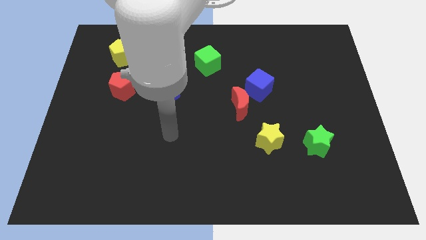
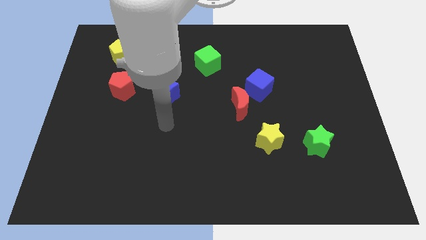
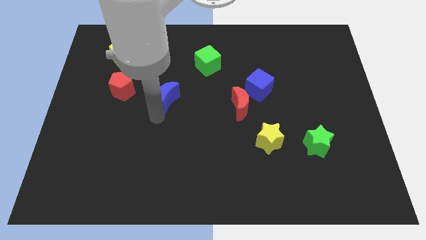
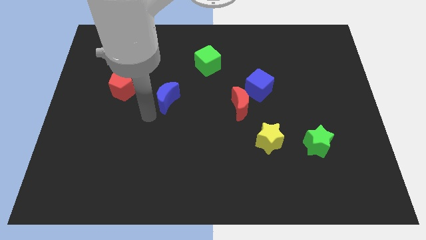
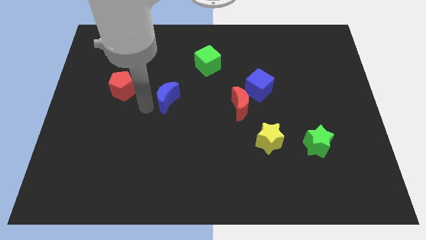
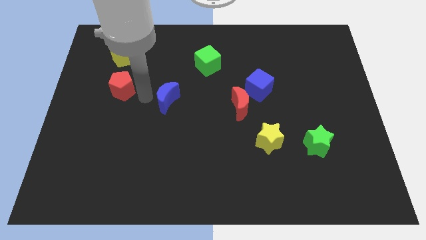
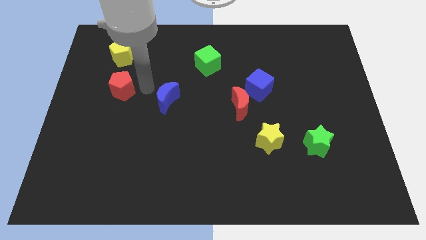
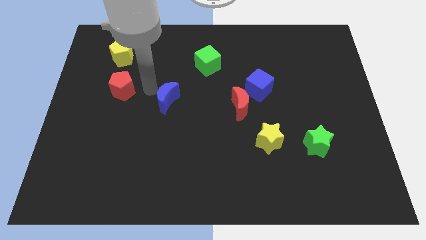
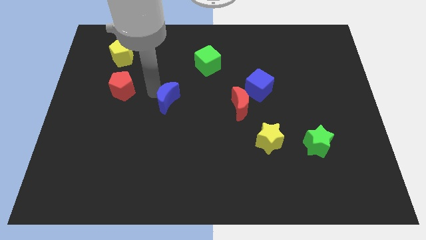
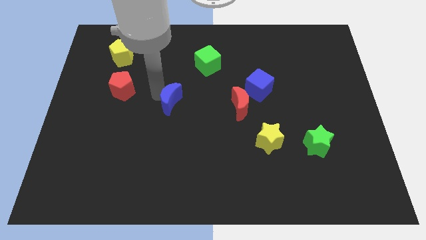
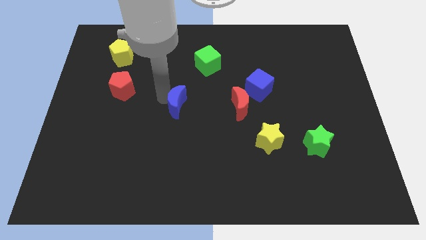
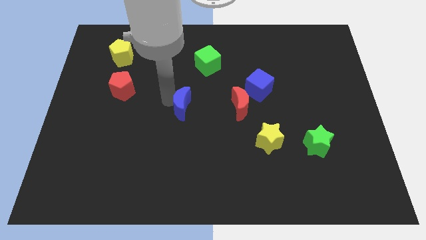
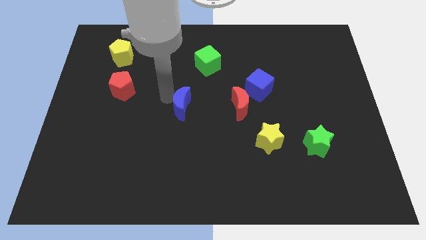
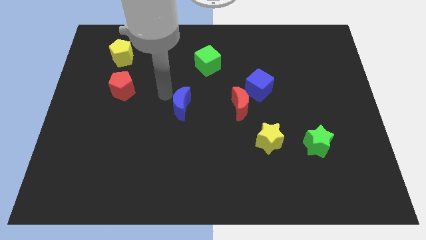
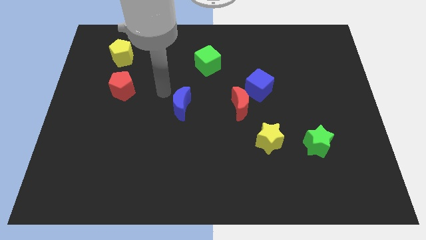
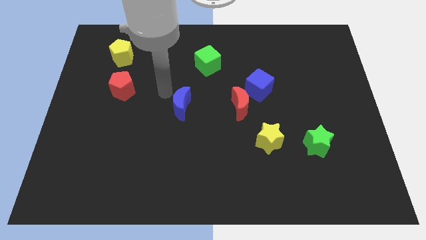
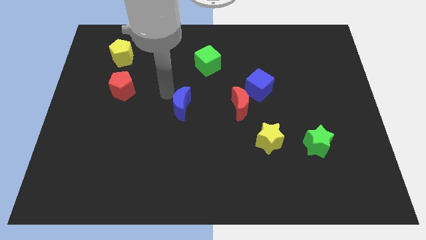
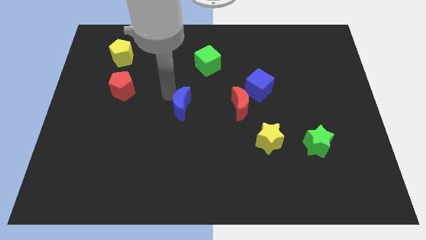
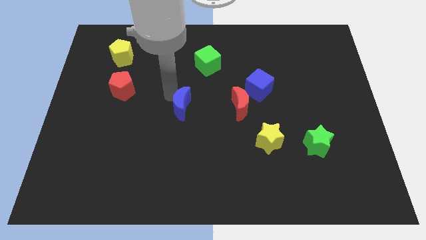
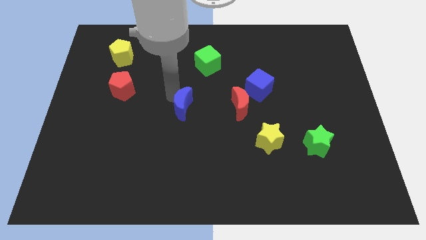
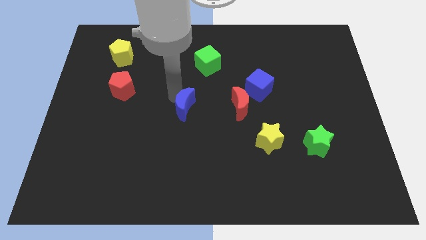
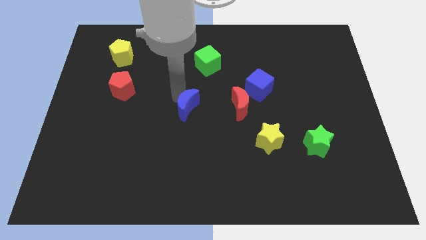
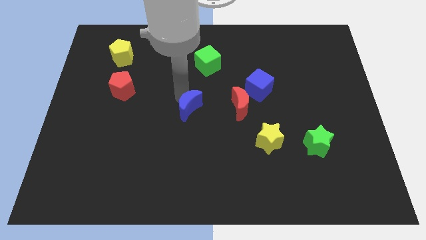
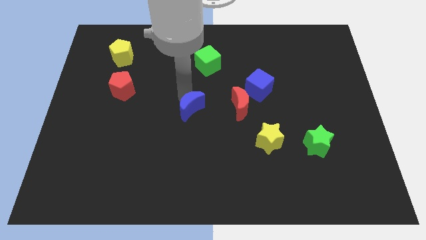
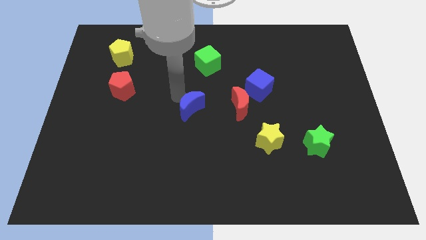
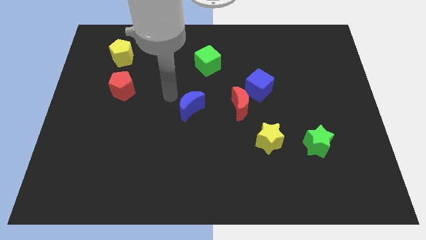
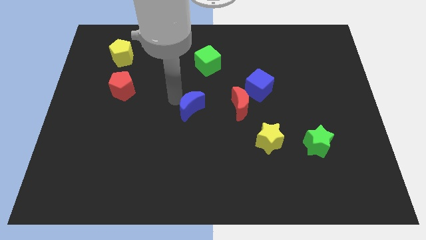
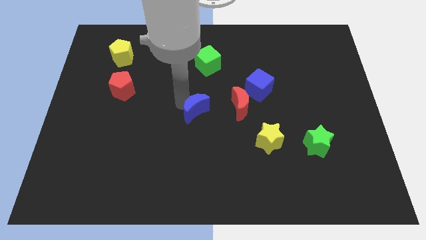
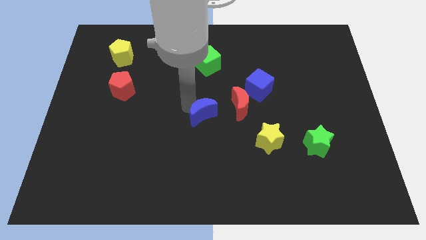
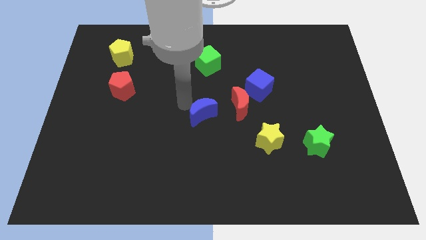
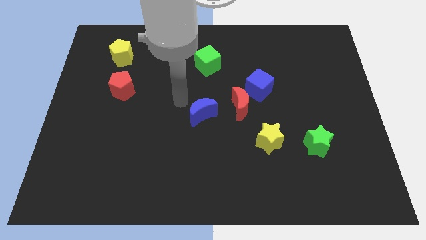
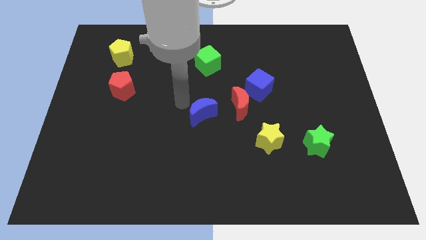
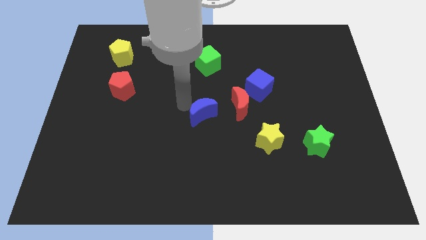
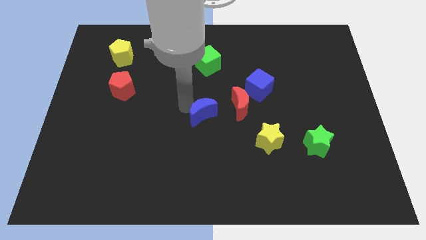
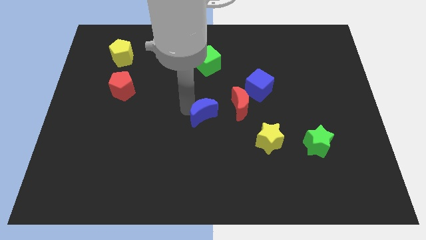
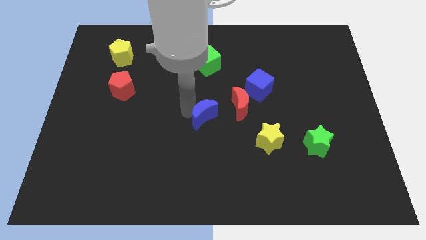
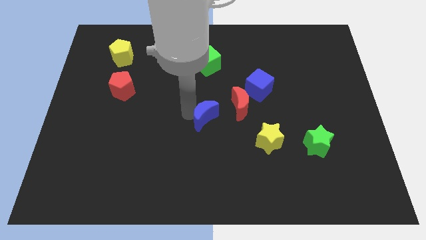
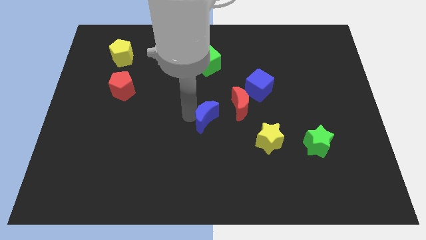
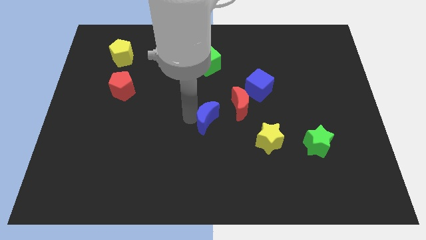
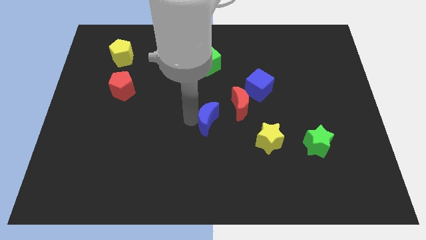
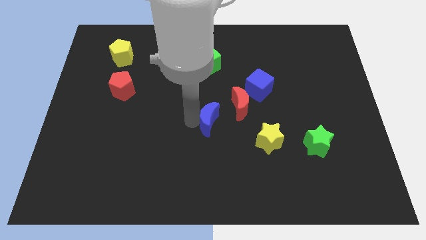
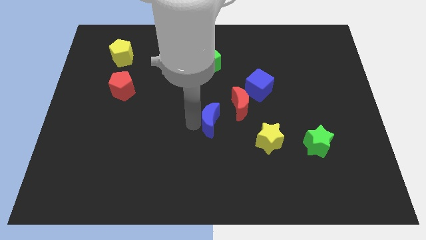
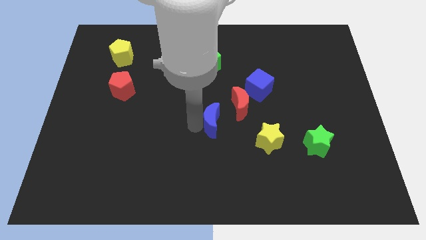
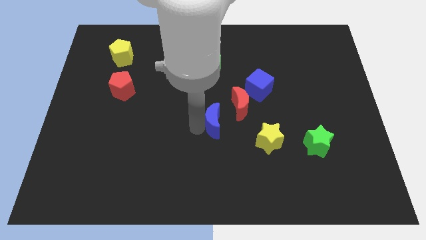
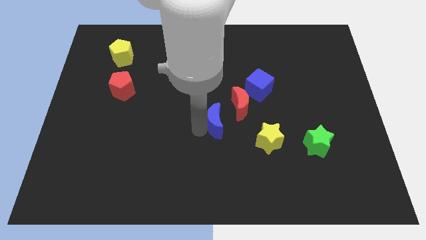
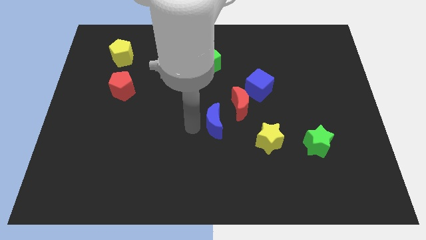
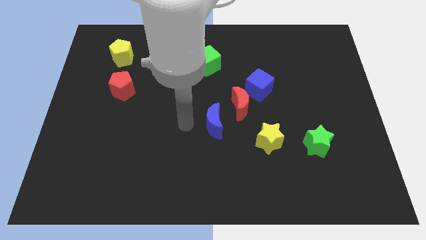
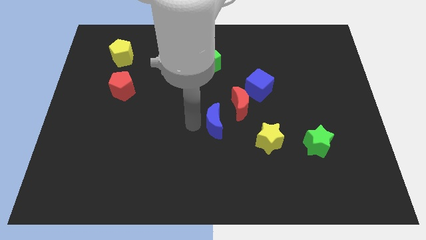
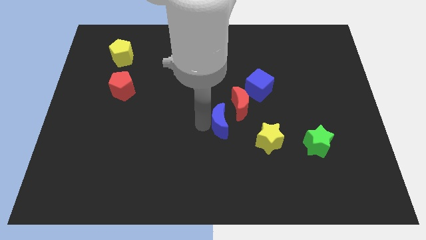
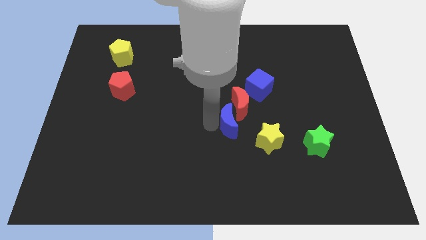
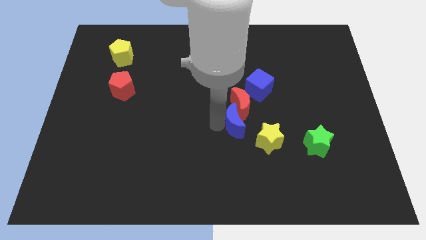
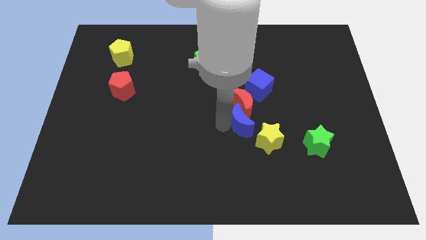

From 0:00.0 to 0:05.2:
put the blue moon diagonally down and to the right of the red moon

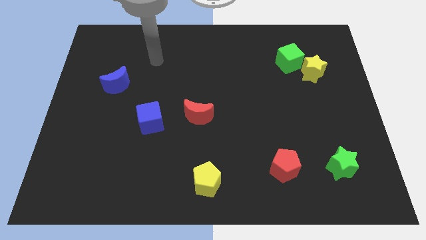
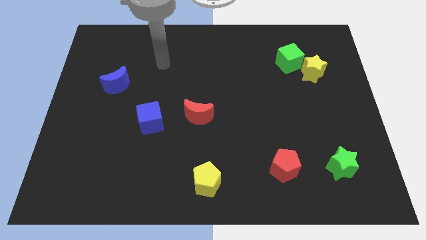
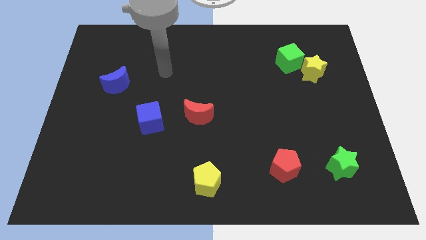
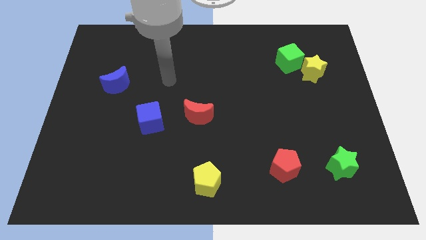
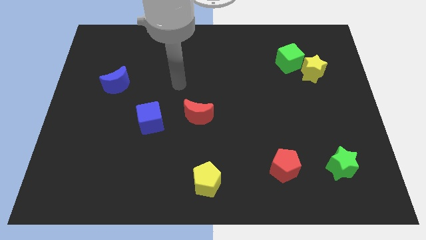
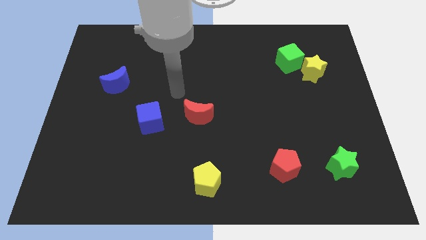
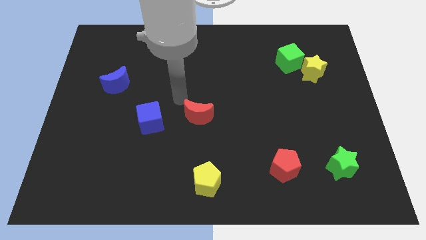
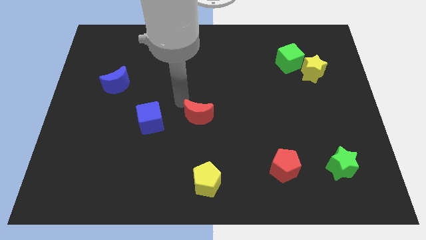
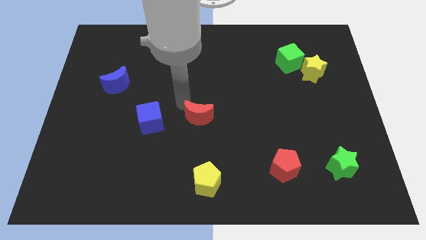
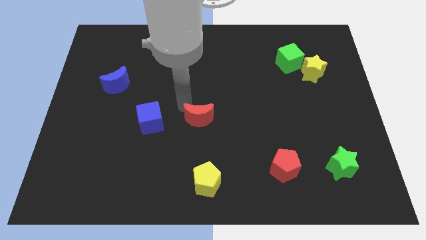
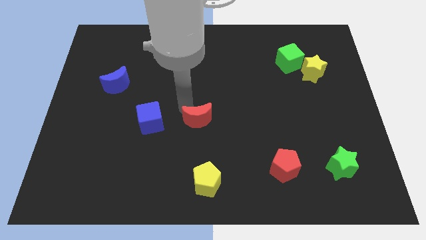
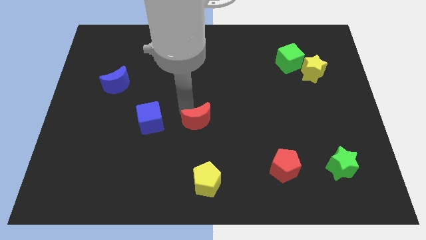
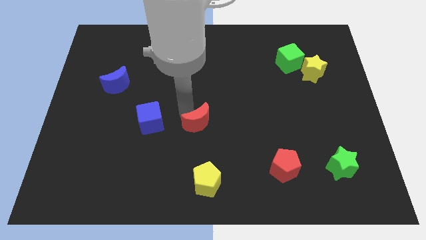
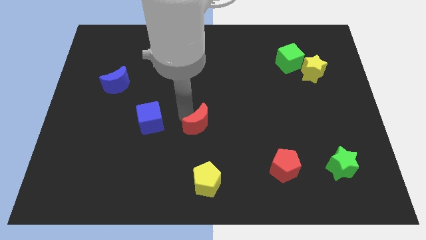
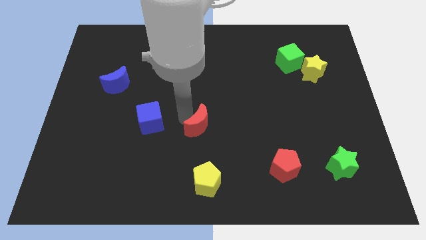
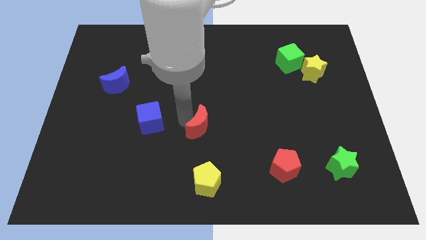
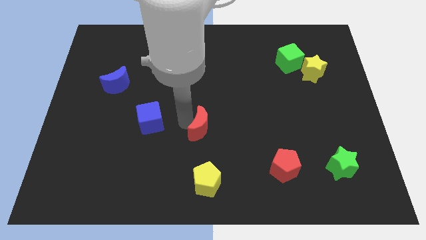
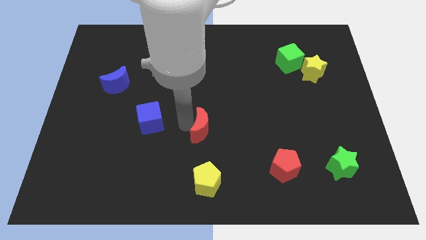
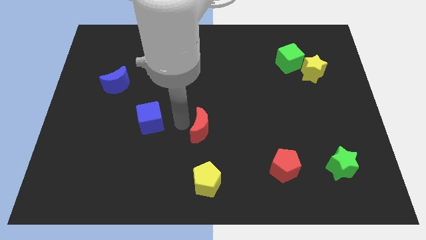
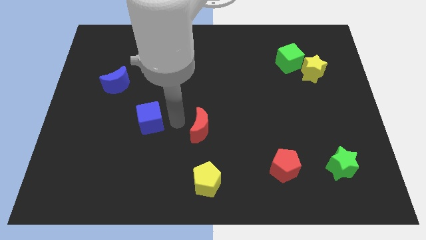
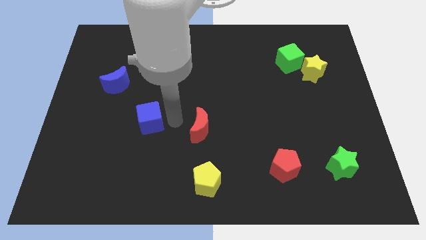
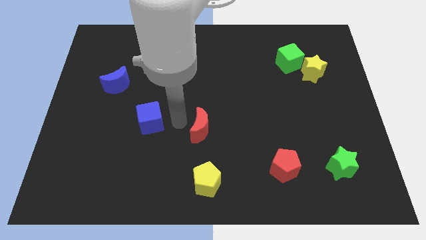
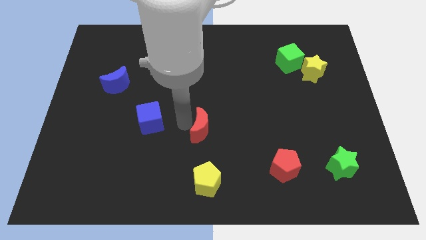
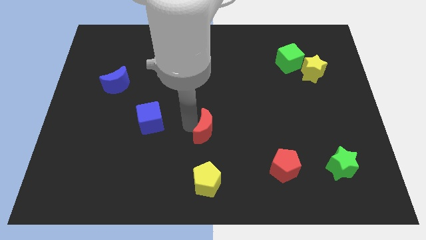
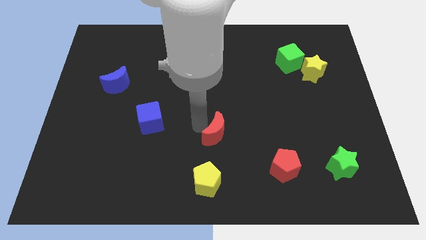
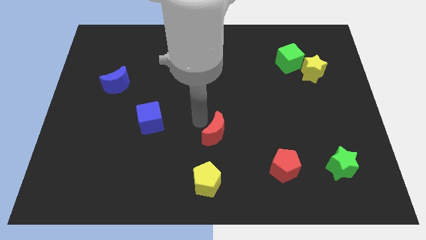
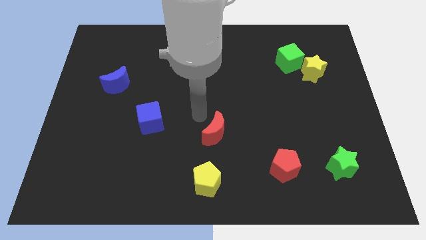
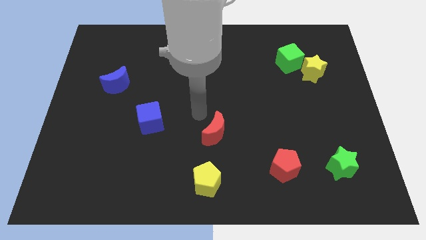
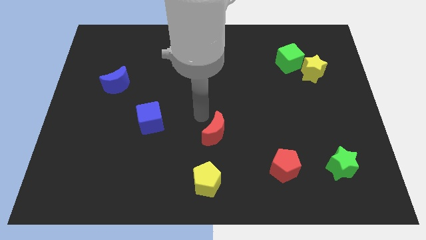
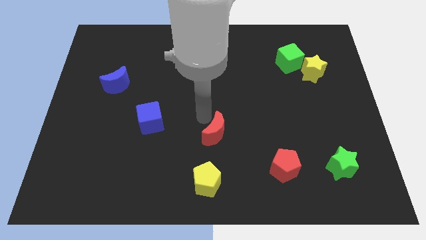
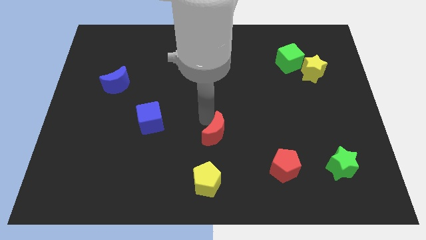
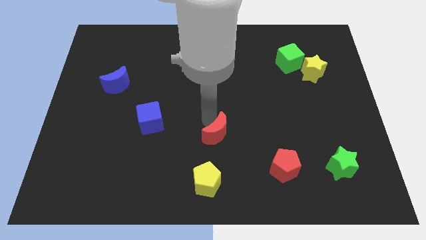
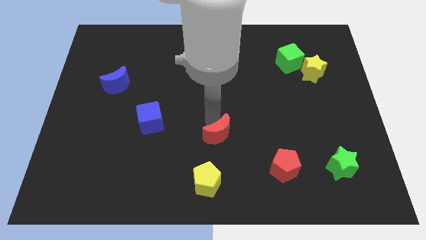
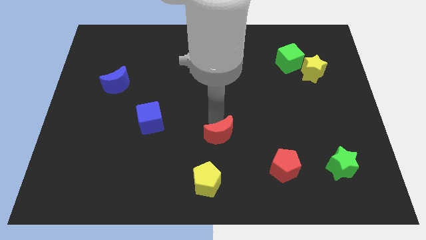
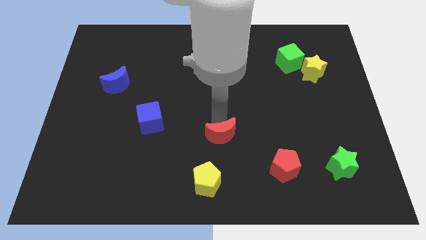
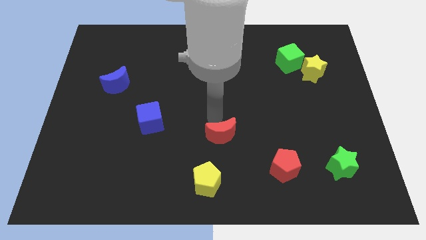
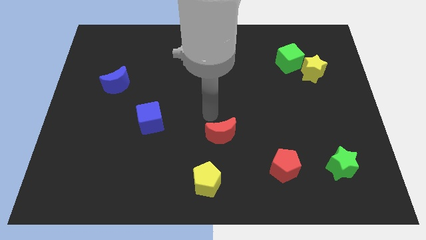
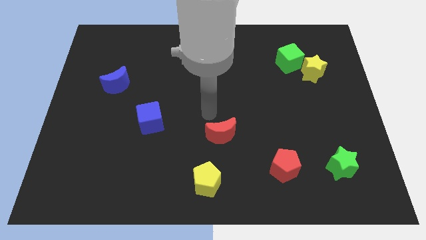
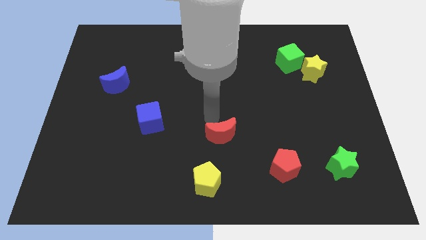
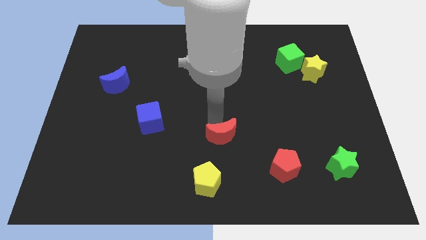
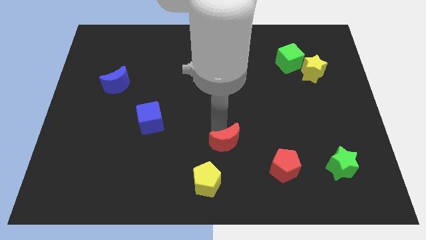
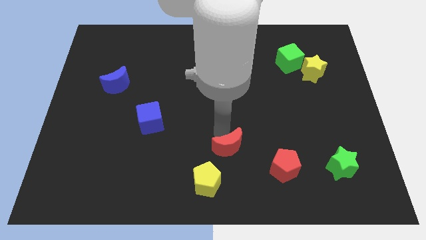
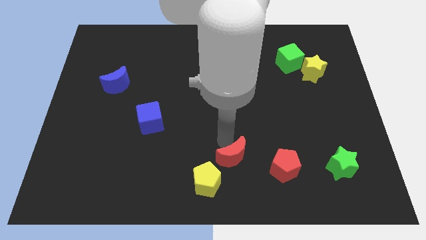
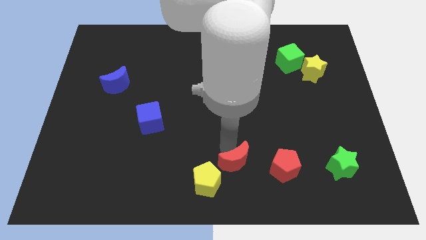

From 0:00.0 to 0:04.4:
push the red moon just right of the yellow pentagon
